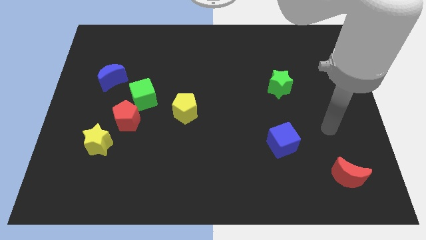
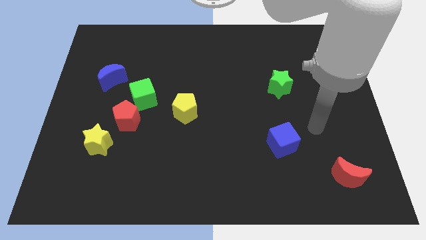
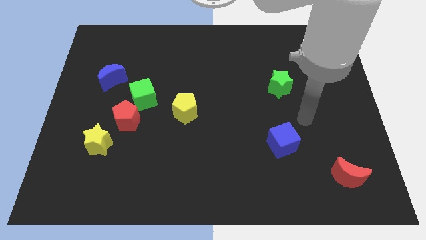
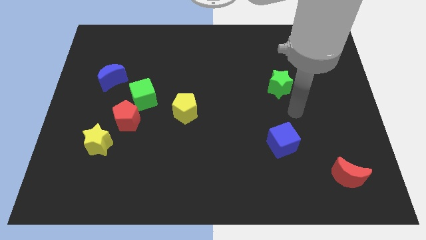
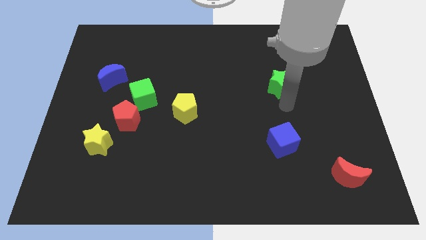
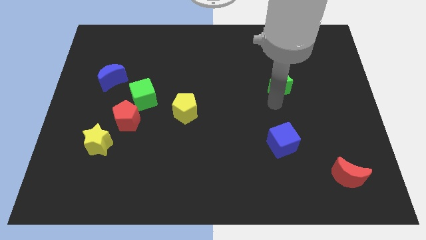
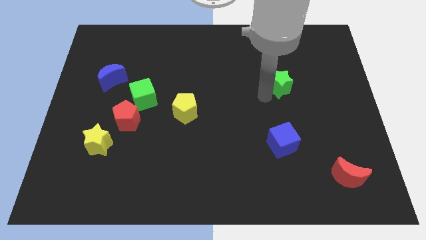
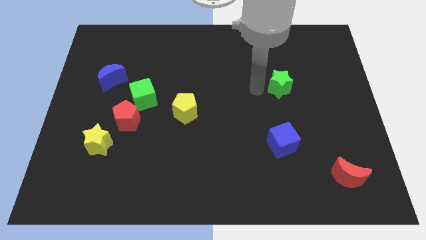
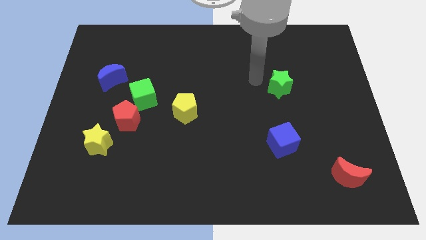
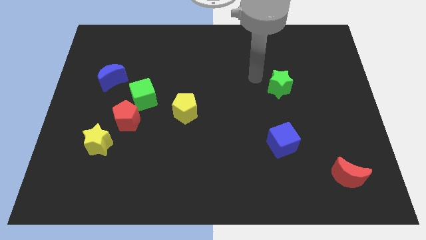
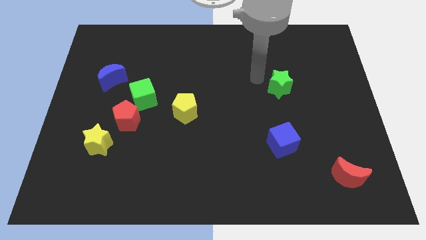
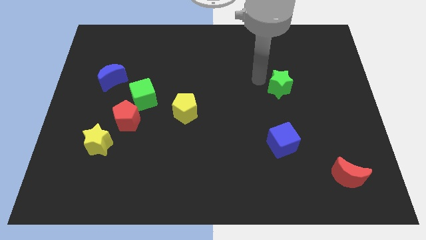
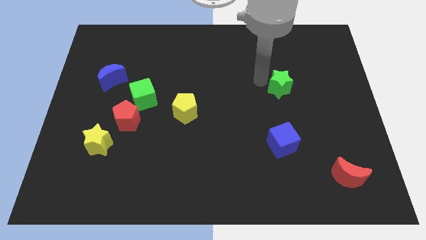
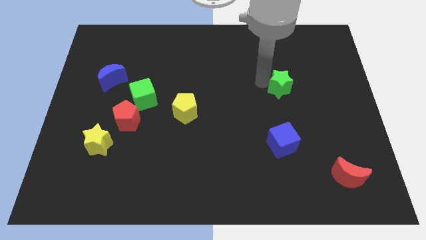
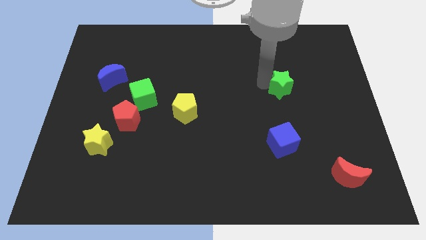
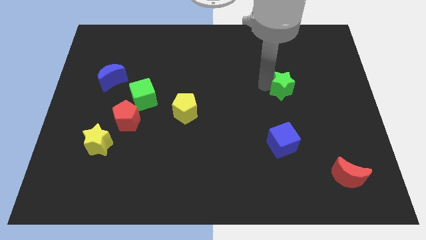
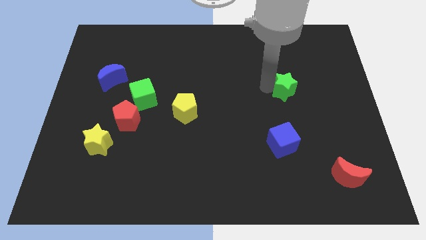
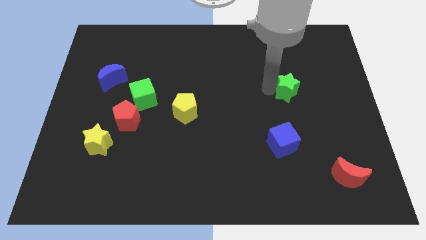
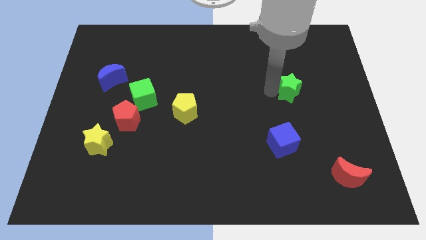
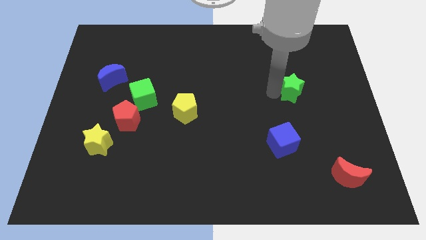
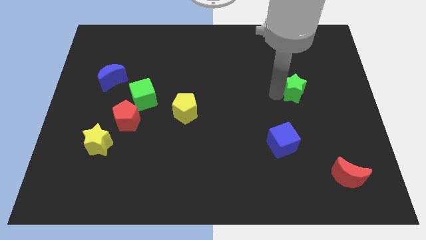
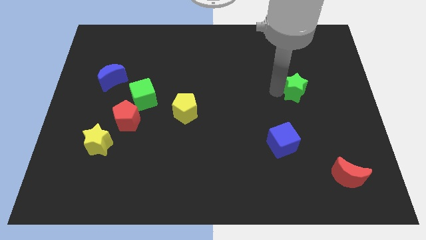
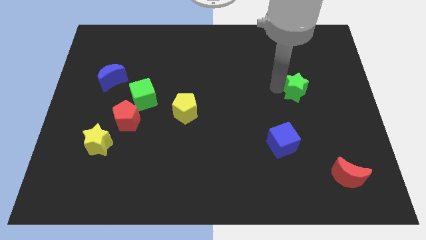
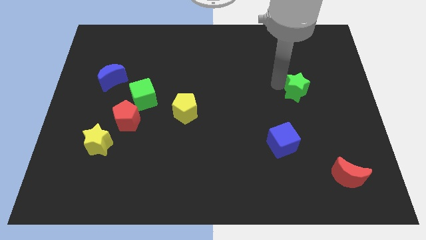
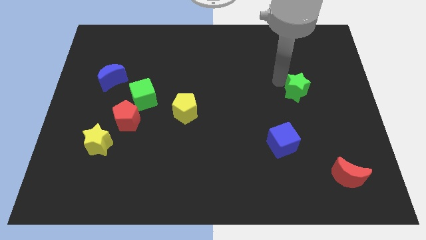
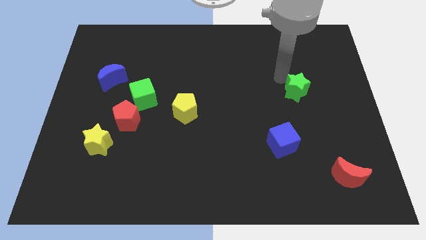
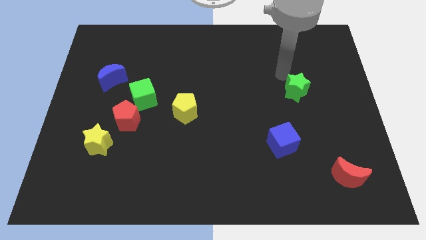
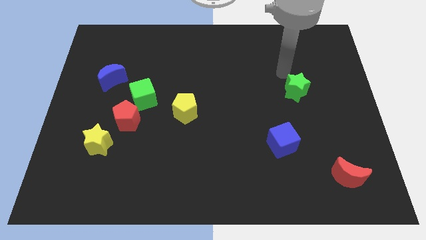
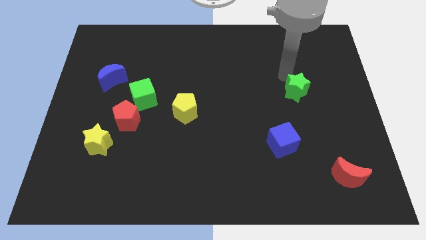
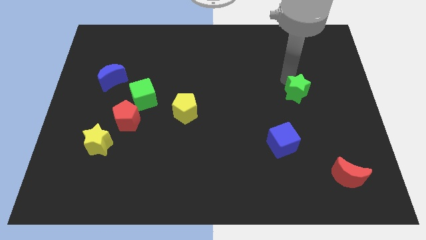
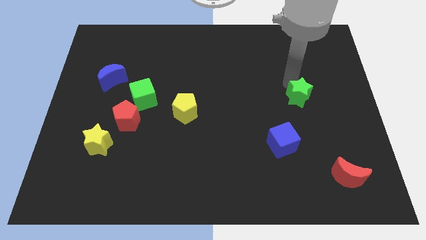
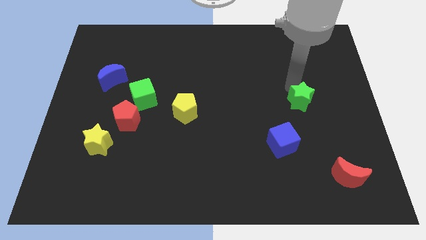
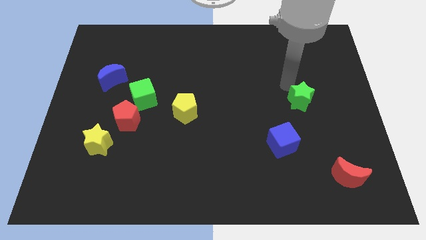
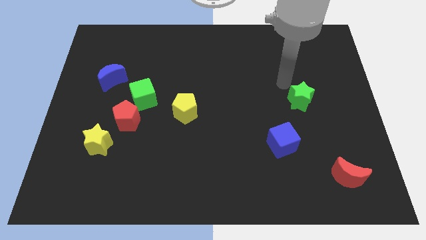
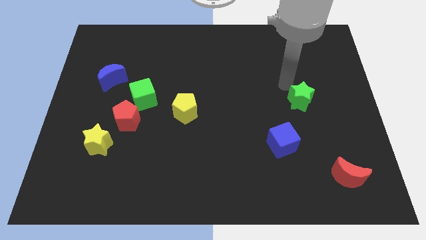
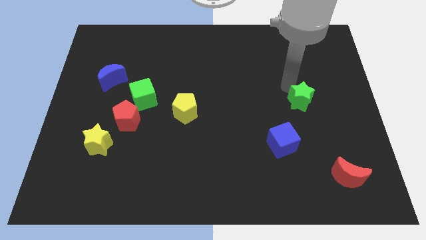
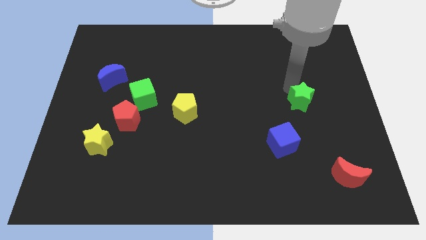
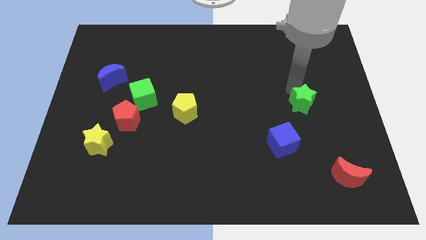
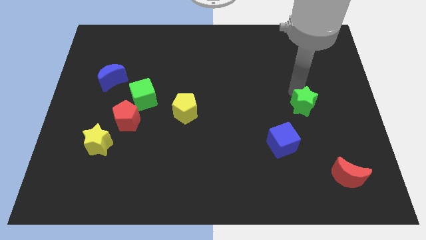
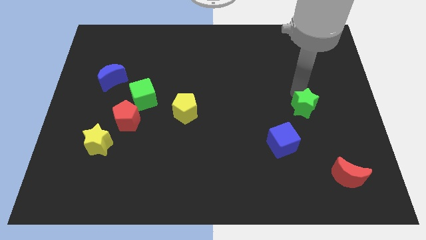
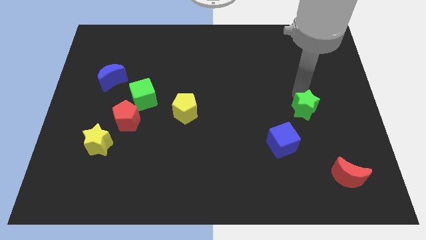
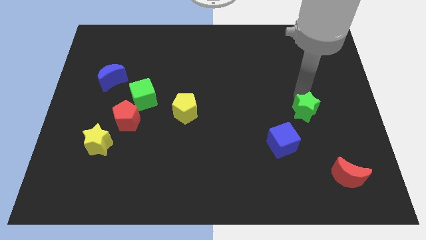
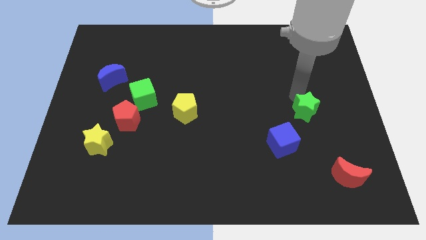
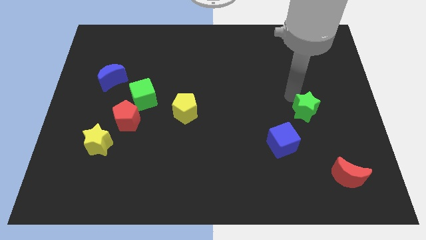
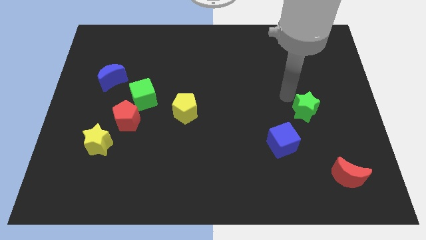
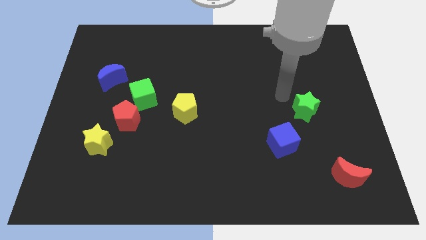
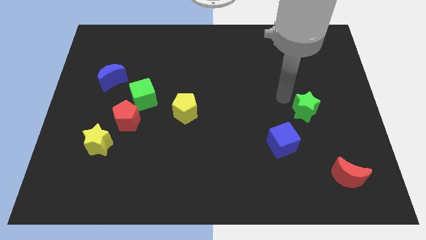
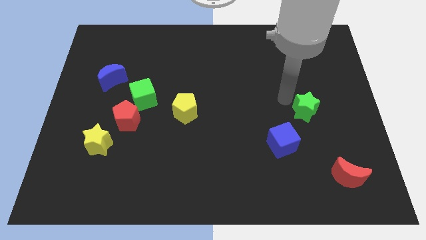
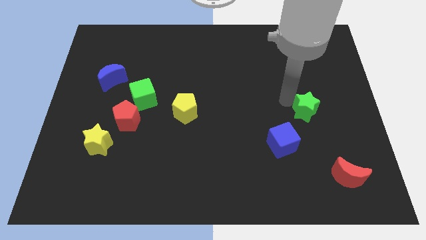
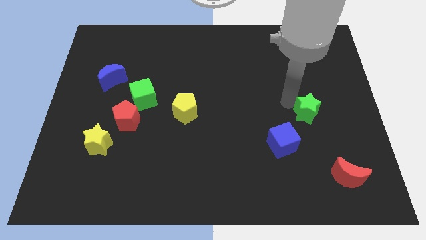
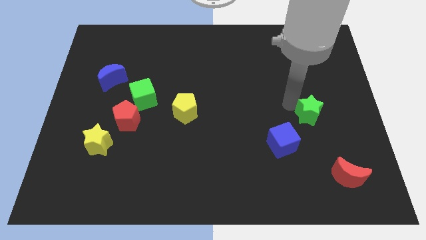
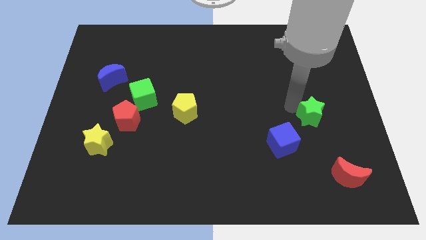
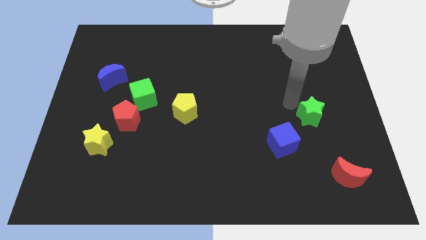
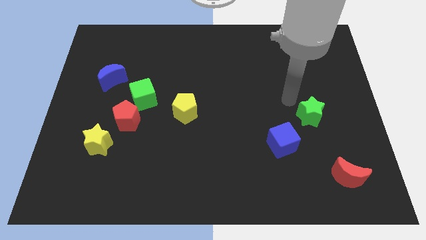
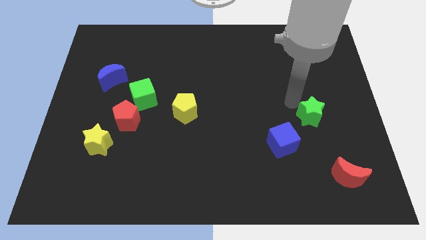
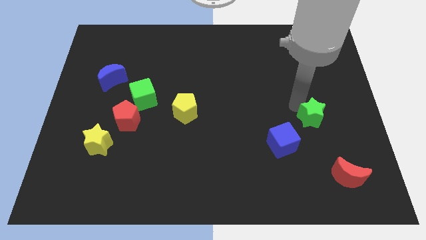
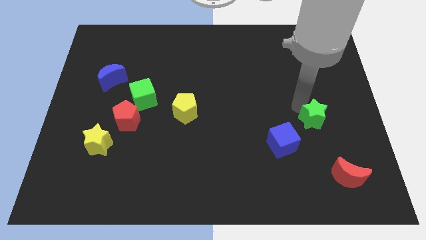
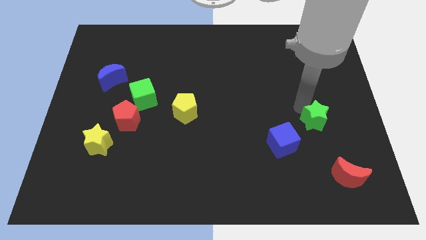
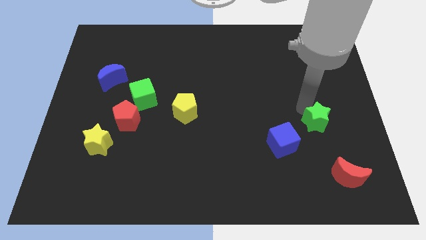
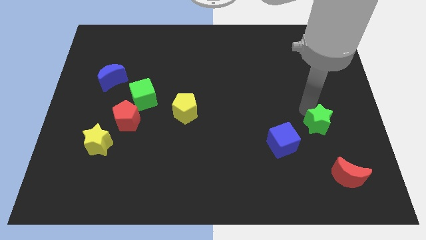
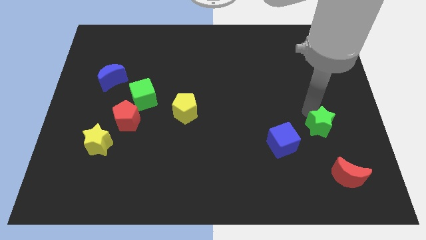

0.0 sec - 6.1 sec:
move the green star to the right of the blue cube
